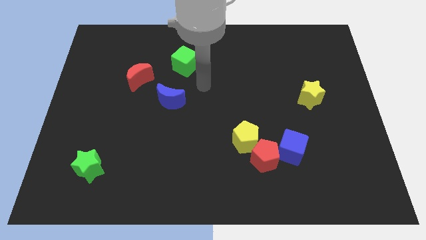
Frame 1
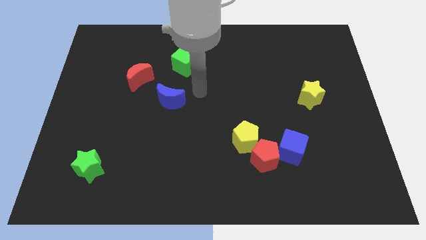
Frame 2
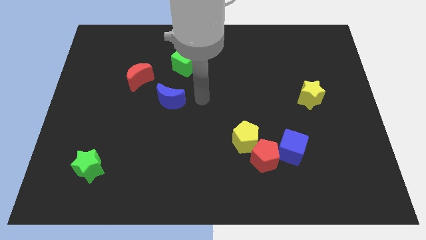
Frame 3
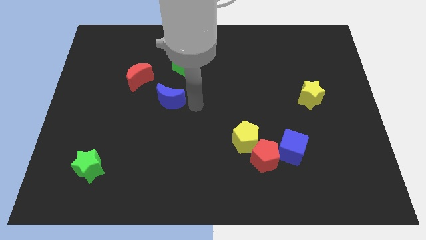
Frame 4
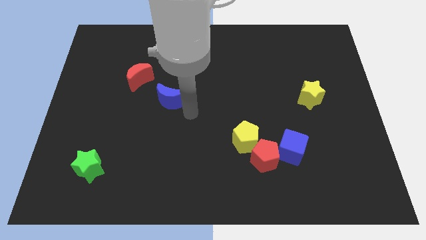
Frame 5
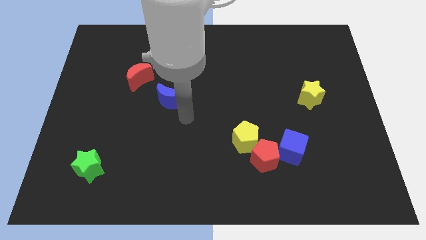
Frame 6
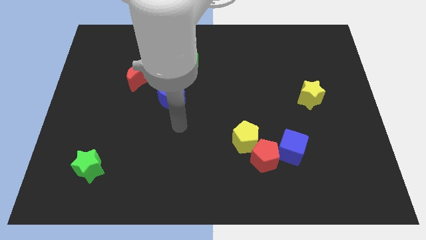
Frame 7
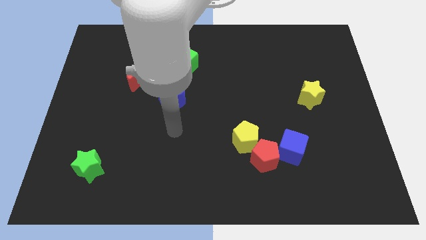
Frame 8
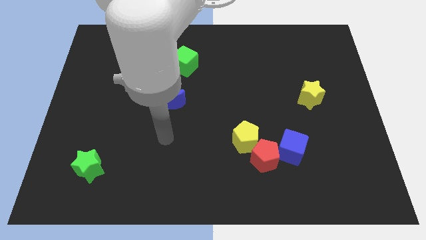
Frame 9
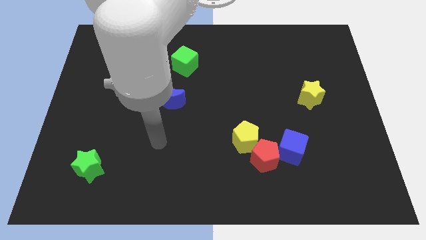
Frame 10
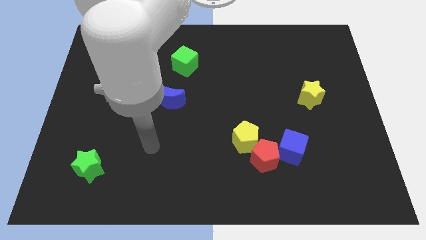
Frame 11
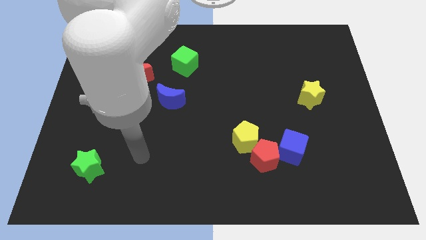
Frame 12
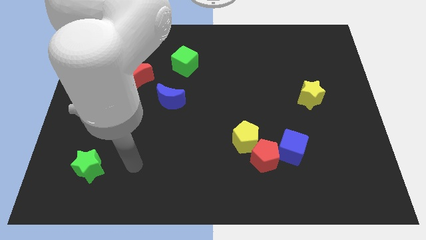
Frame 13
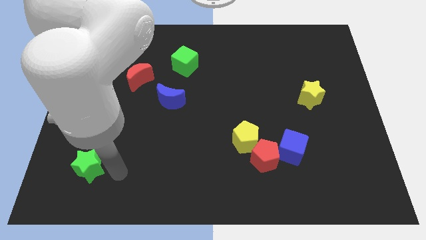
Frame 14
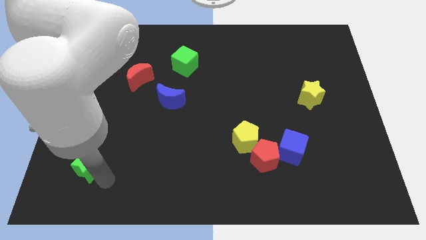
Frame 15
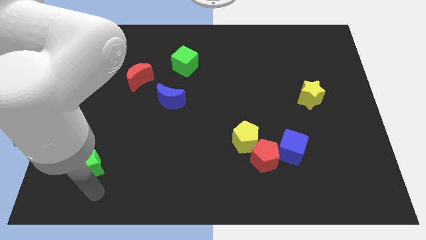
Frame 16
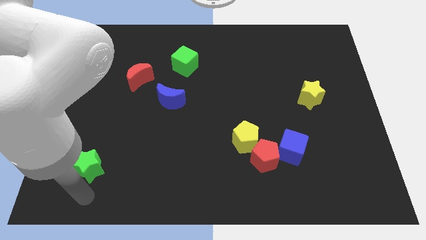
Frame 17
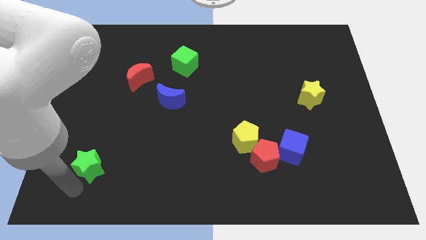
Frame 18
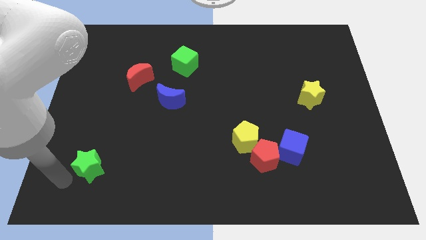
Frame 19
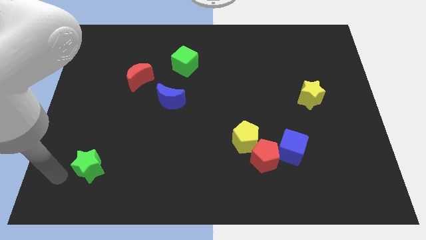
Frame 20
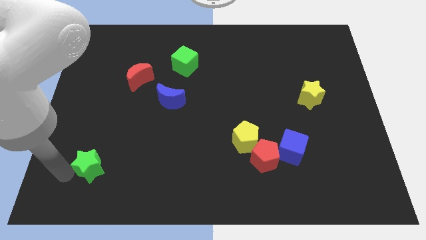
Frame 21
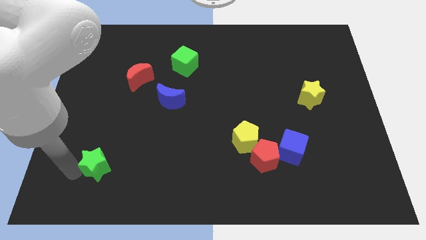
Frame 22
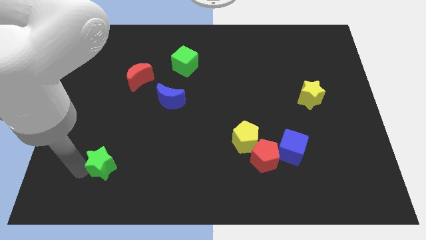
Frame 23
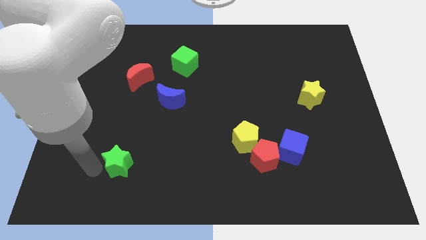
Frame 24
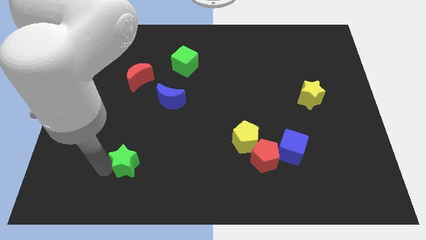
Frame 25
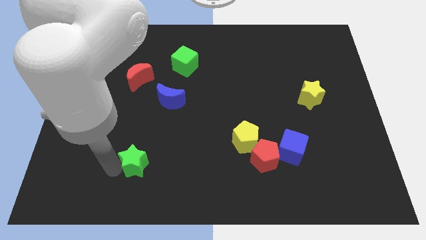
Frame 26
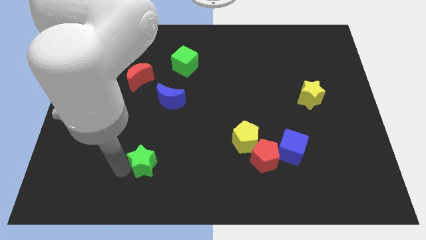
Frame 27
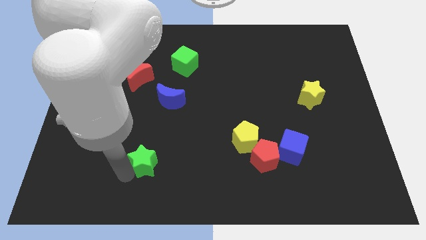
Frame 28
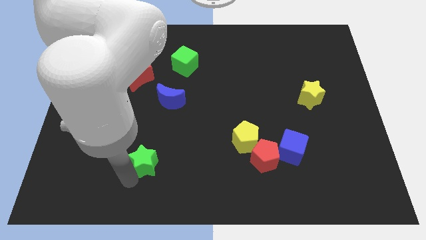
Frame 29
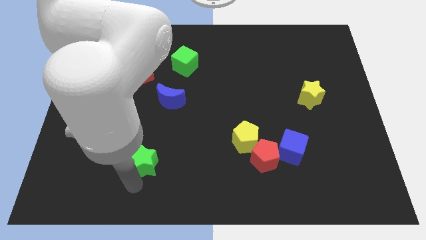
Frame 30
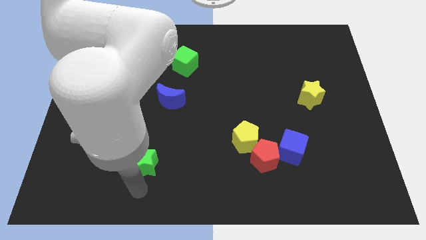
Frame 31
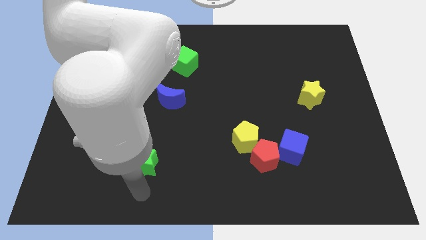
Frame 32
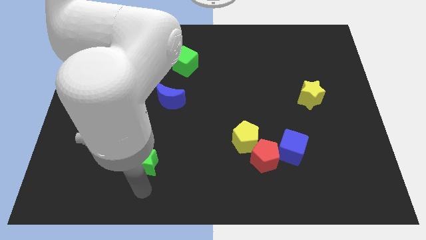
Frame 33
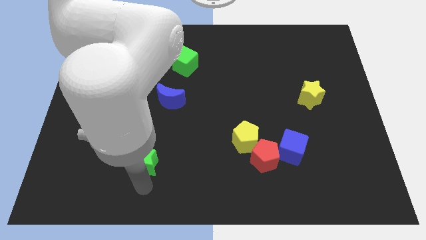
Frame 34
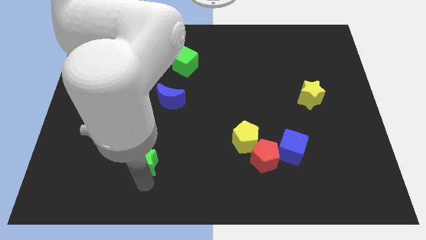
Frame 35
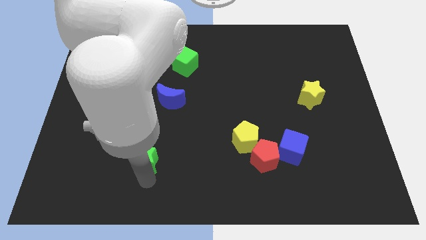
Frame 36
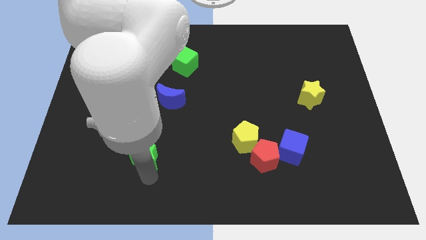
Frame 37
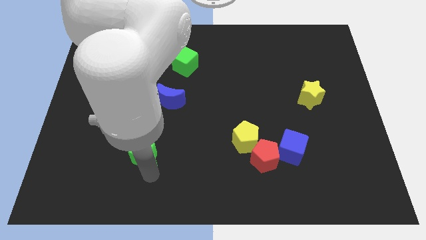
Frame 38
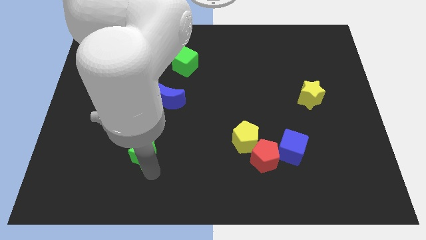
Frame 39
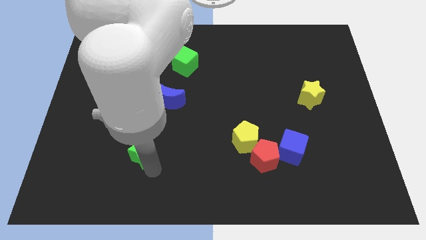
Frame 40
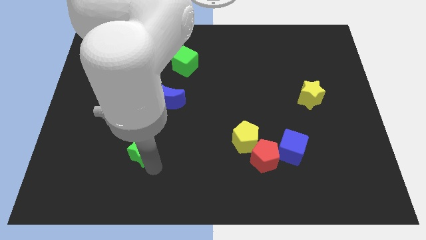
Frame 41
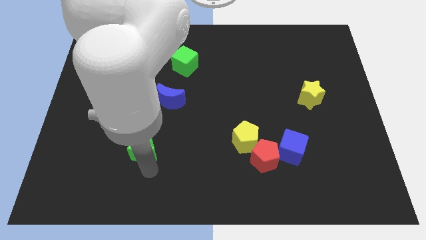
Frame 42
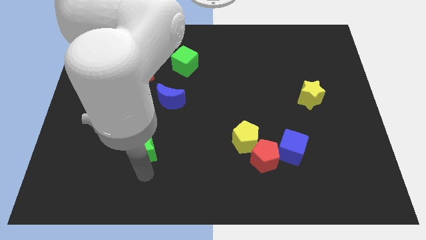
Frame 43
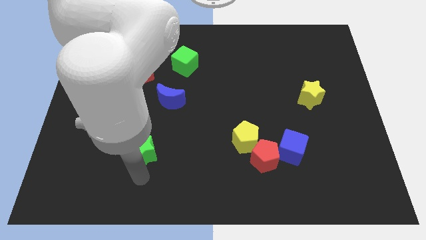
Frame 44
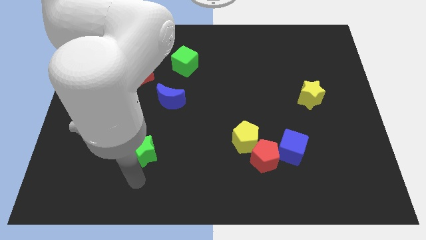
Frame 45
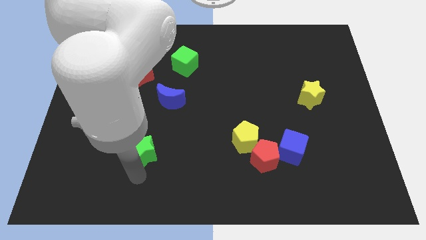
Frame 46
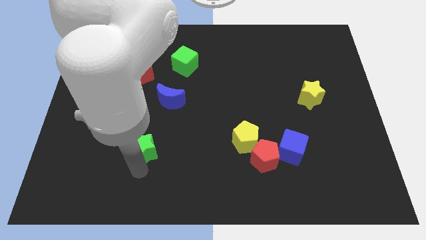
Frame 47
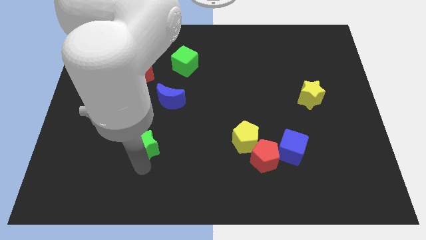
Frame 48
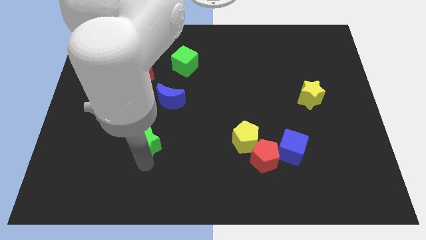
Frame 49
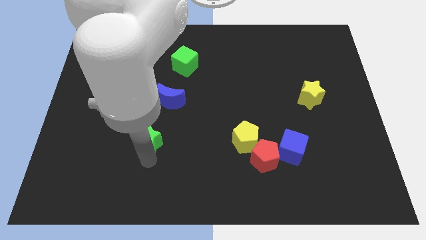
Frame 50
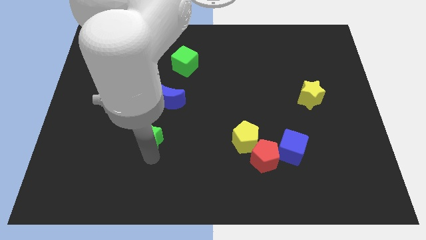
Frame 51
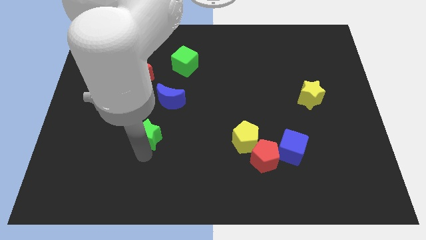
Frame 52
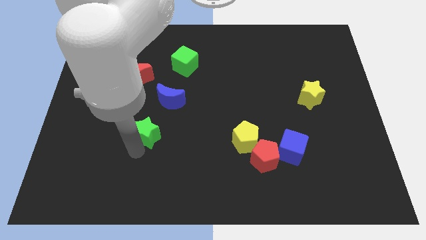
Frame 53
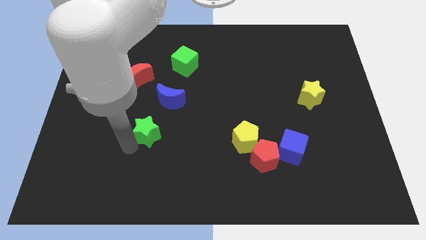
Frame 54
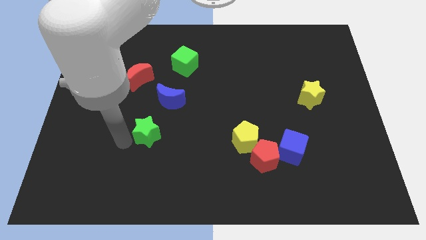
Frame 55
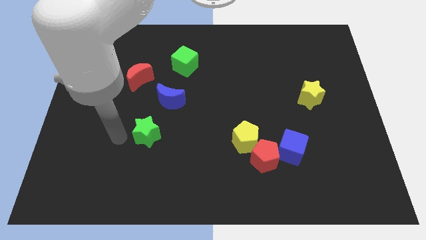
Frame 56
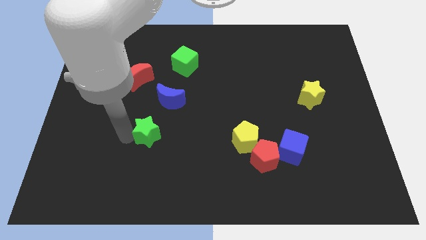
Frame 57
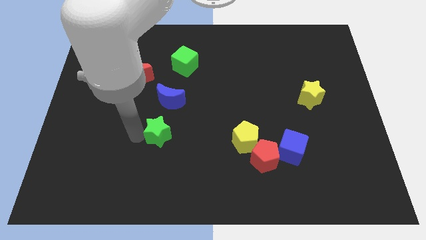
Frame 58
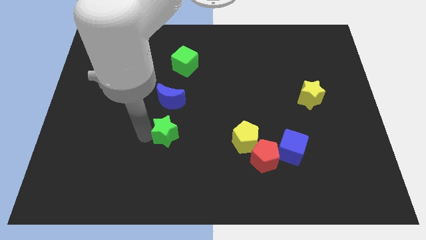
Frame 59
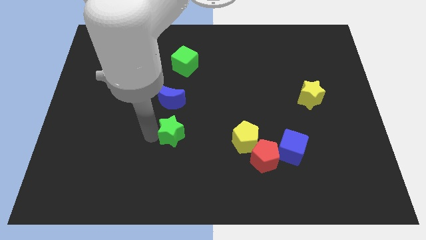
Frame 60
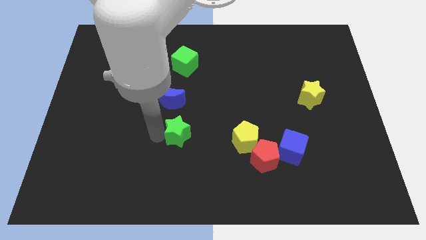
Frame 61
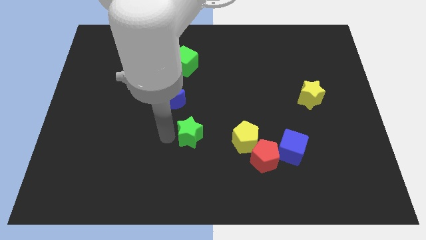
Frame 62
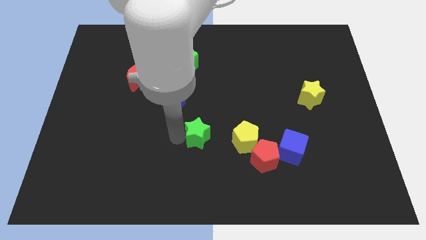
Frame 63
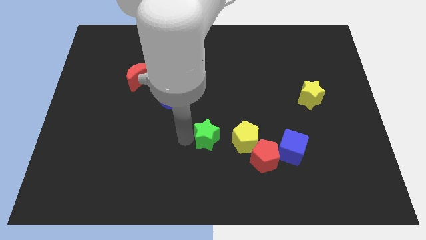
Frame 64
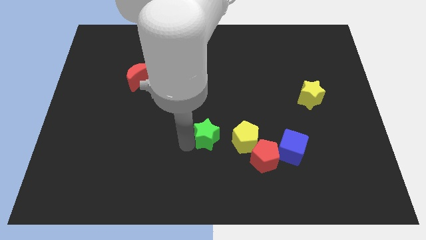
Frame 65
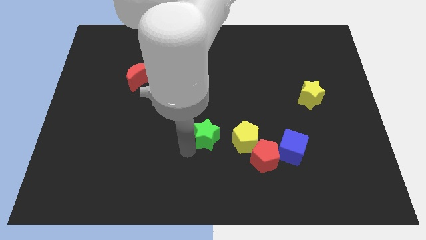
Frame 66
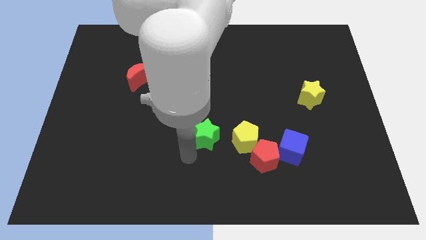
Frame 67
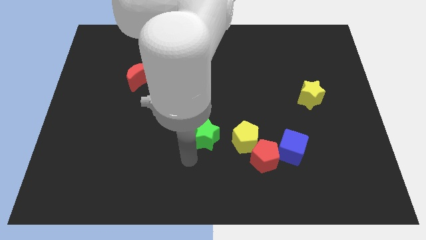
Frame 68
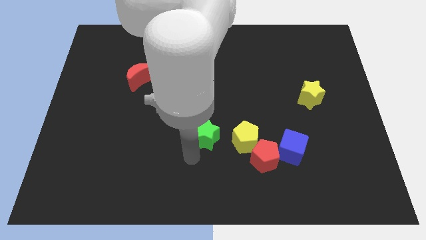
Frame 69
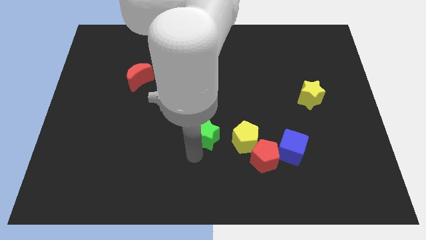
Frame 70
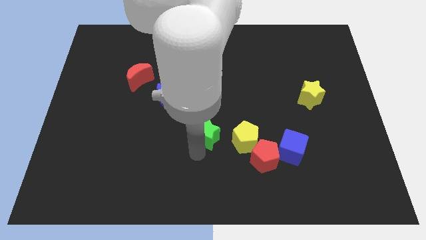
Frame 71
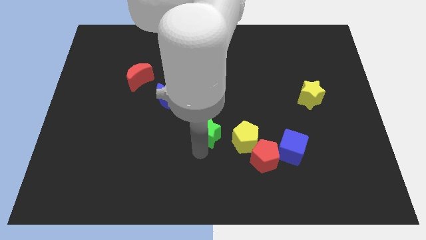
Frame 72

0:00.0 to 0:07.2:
move the green star diagonally up and to the left of the yellow pentagon
